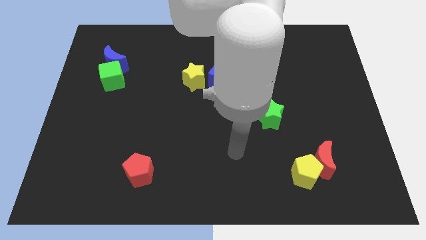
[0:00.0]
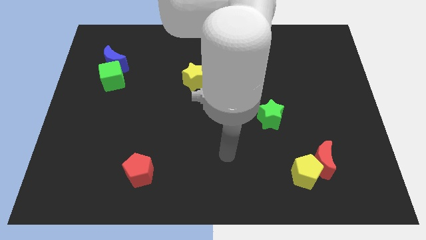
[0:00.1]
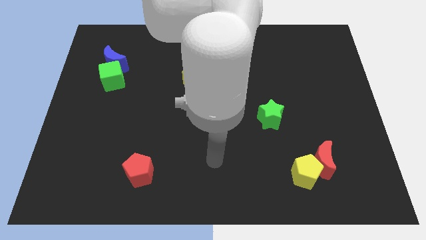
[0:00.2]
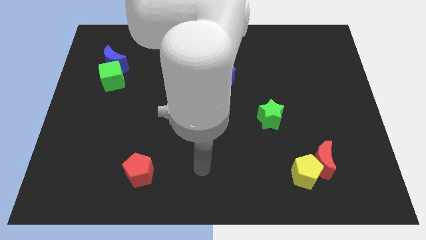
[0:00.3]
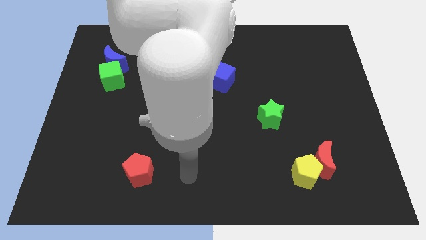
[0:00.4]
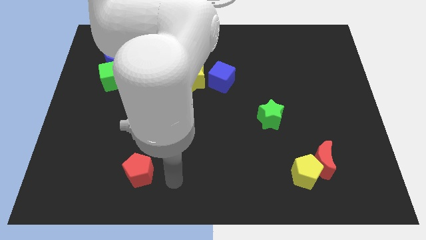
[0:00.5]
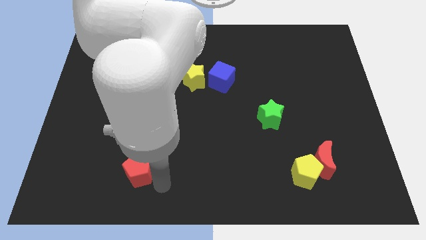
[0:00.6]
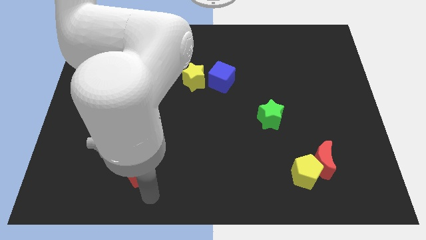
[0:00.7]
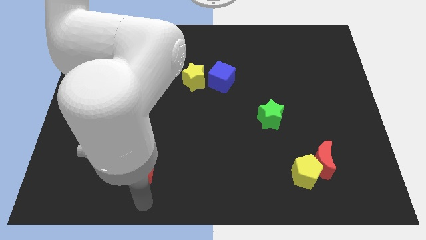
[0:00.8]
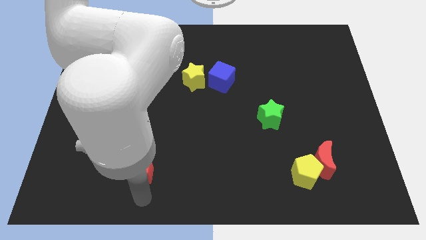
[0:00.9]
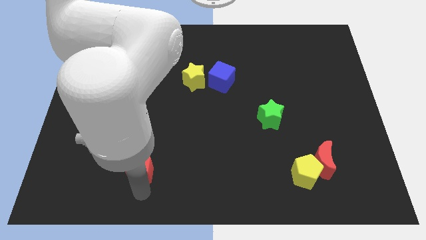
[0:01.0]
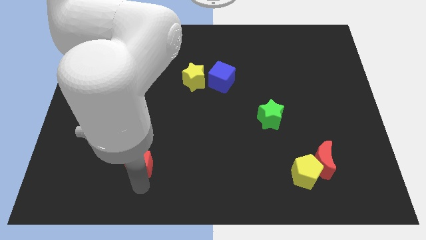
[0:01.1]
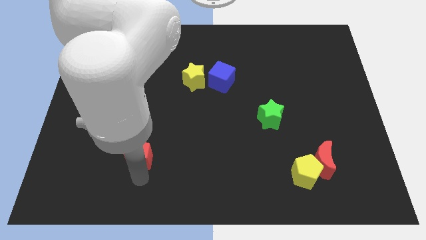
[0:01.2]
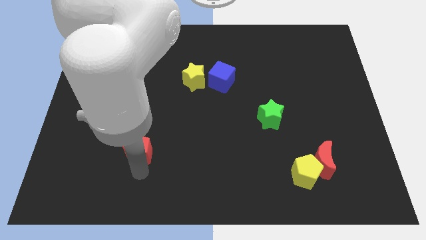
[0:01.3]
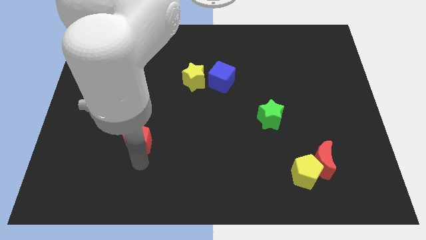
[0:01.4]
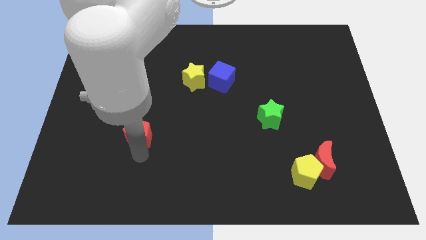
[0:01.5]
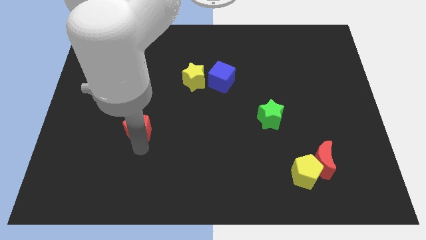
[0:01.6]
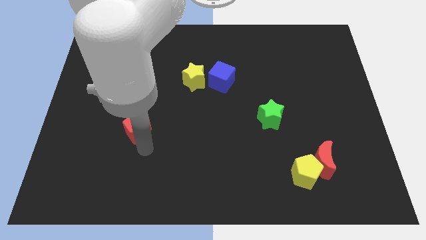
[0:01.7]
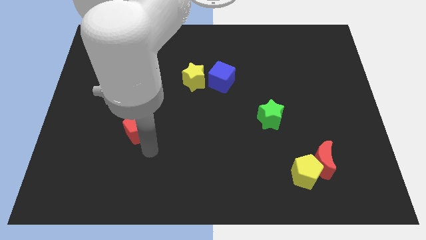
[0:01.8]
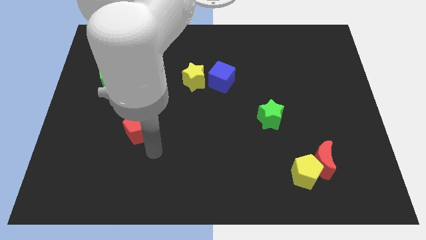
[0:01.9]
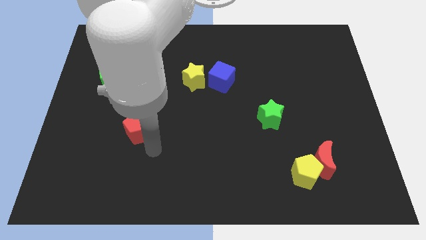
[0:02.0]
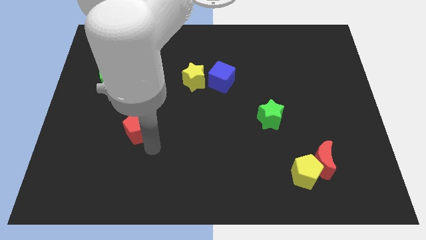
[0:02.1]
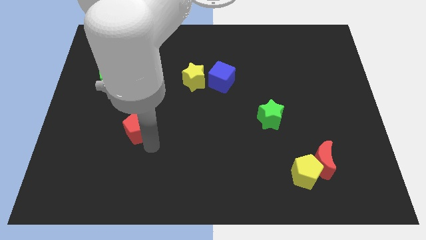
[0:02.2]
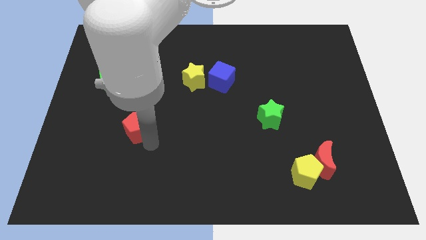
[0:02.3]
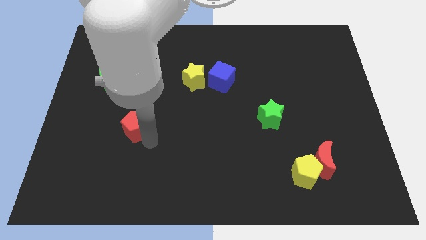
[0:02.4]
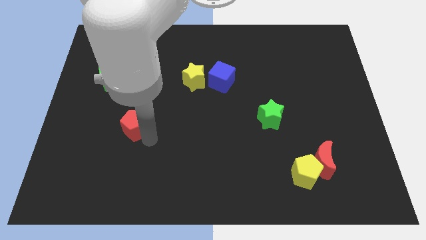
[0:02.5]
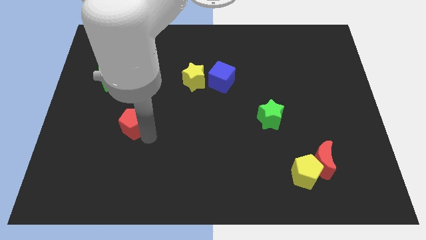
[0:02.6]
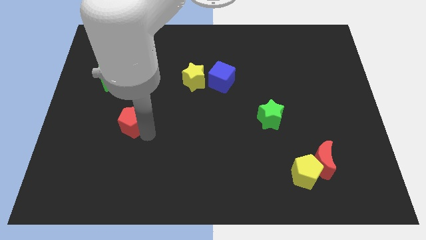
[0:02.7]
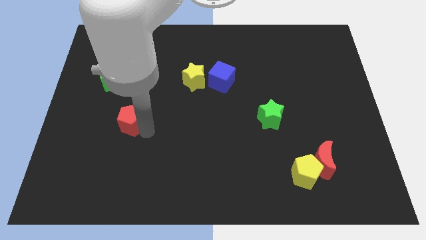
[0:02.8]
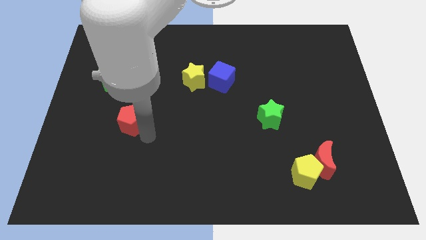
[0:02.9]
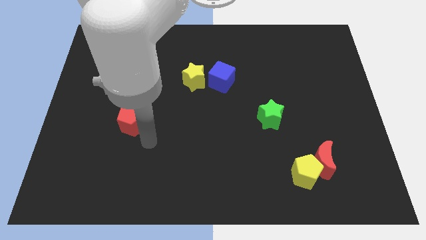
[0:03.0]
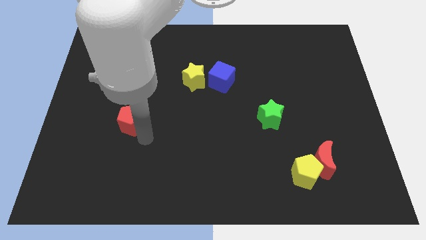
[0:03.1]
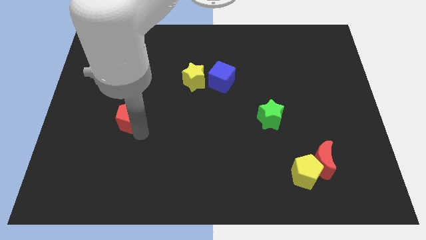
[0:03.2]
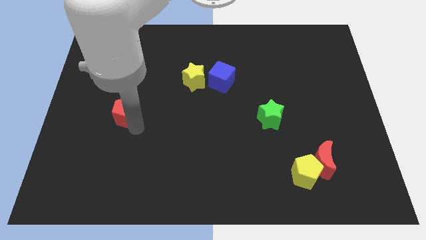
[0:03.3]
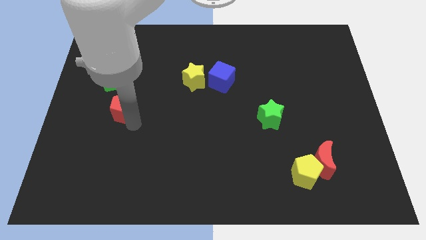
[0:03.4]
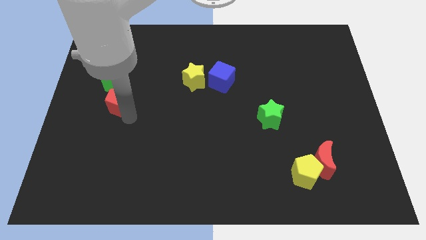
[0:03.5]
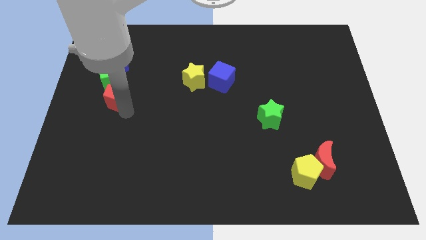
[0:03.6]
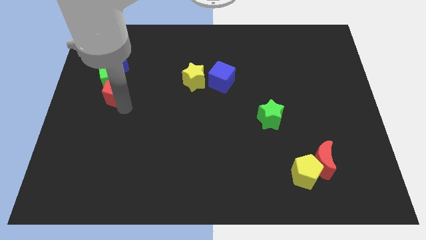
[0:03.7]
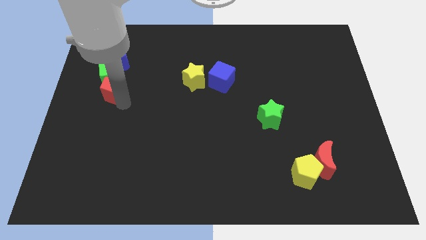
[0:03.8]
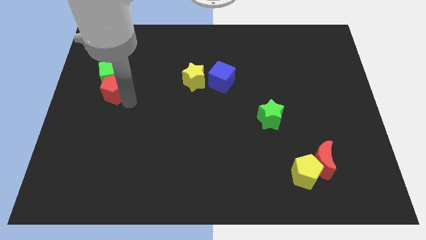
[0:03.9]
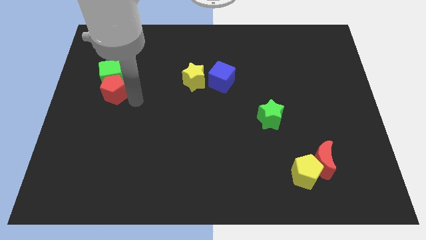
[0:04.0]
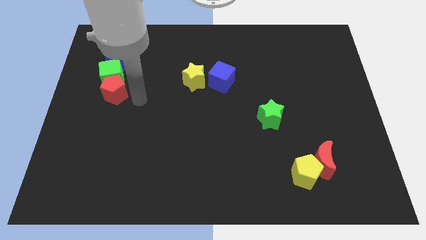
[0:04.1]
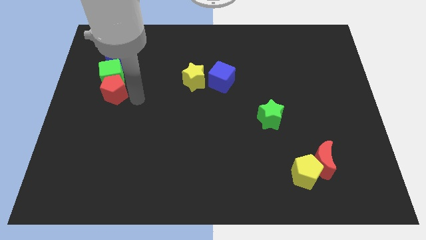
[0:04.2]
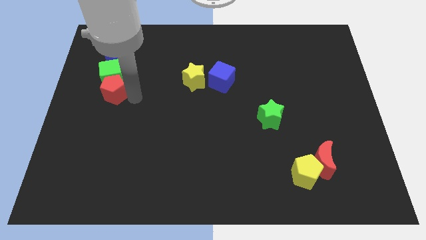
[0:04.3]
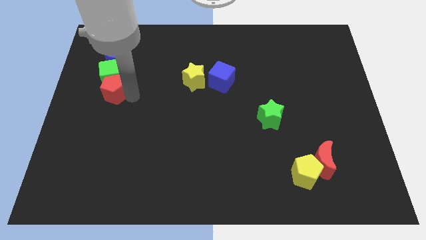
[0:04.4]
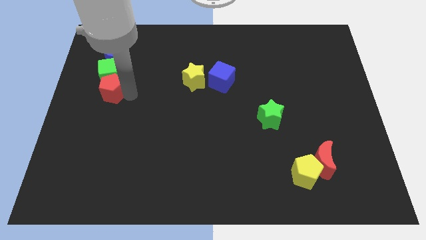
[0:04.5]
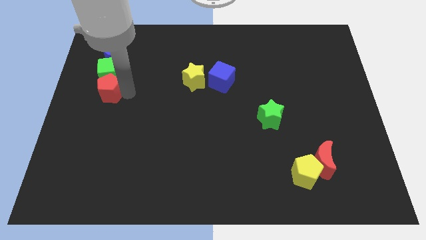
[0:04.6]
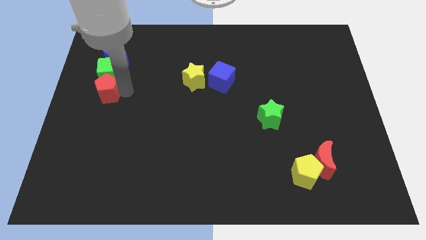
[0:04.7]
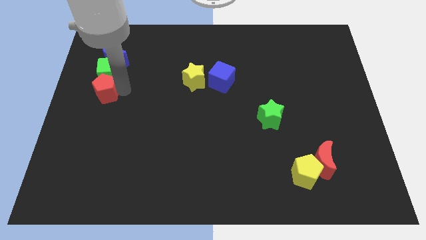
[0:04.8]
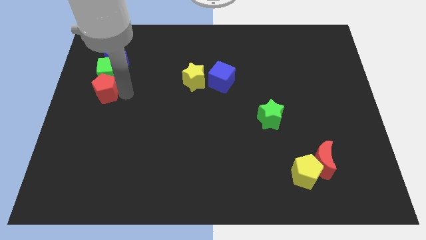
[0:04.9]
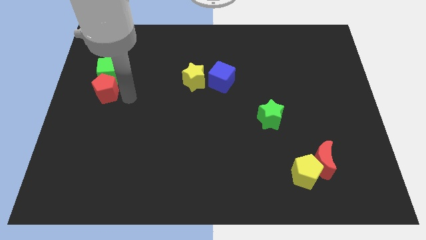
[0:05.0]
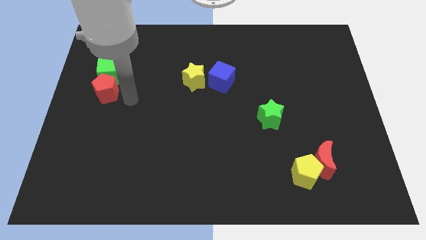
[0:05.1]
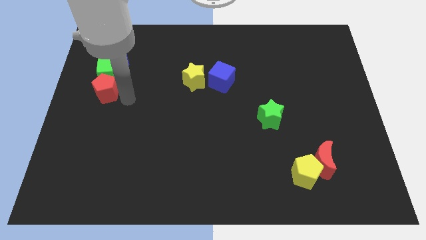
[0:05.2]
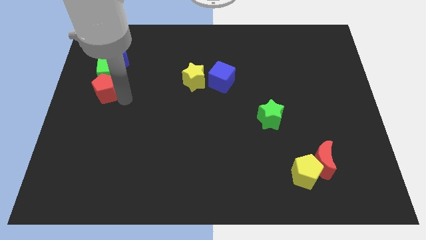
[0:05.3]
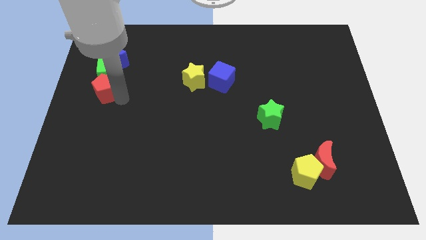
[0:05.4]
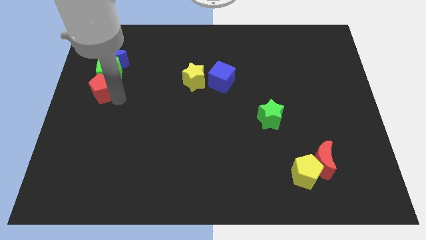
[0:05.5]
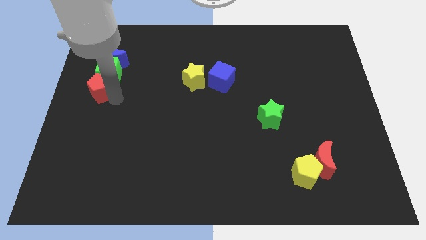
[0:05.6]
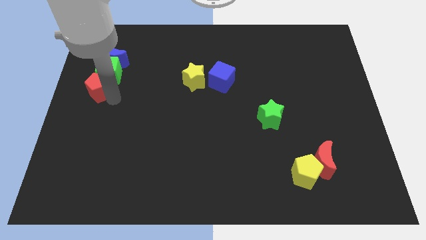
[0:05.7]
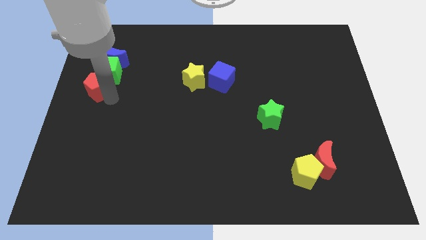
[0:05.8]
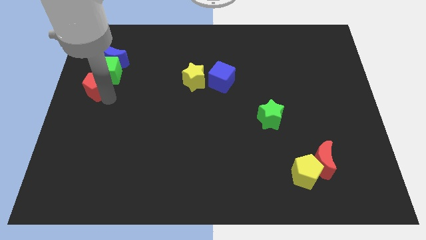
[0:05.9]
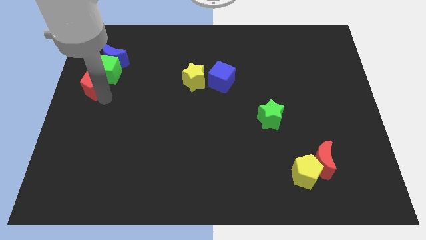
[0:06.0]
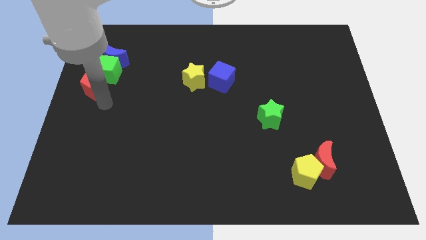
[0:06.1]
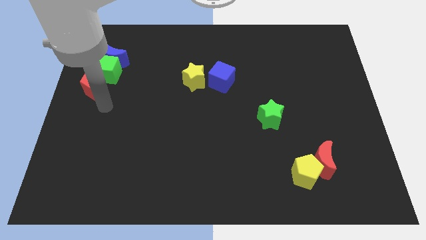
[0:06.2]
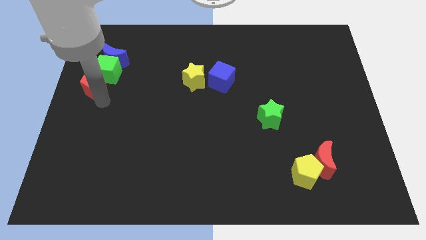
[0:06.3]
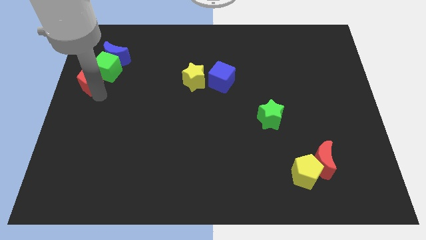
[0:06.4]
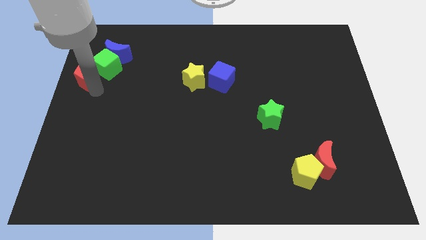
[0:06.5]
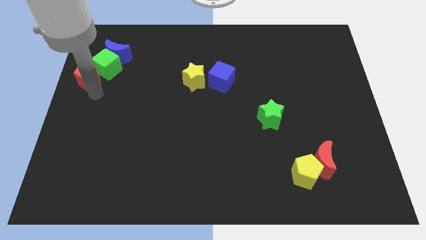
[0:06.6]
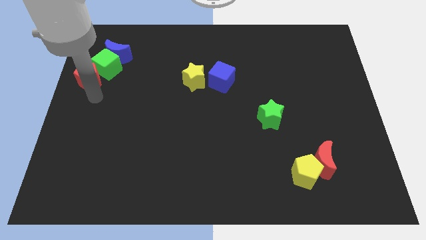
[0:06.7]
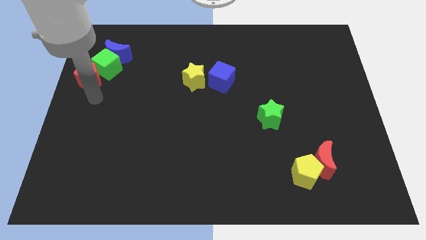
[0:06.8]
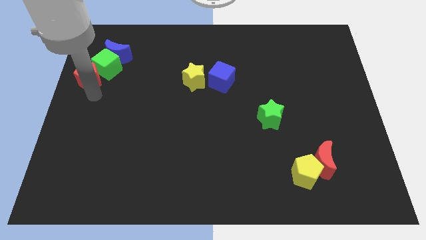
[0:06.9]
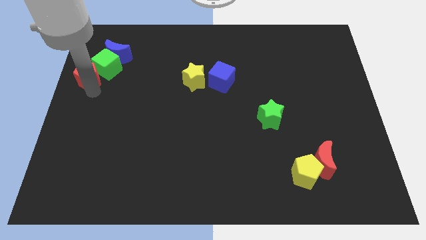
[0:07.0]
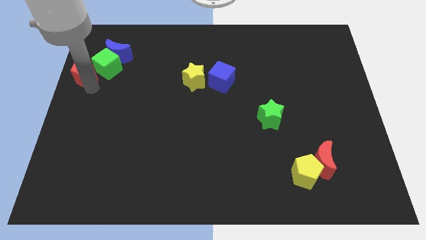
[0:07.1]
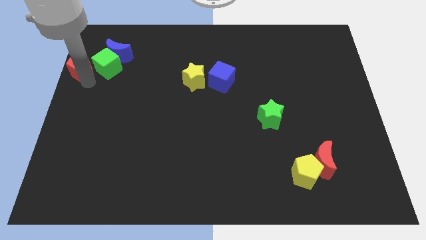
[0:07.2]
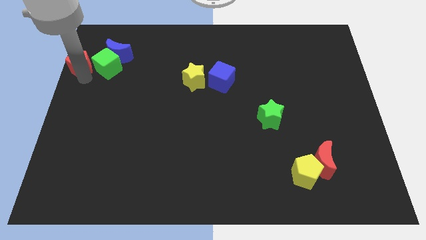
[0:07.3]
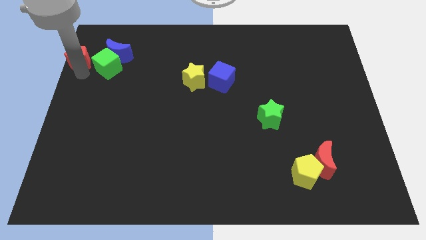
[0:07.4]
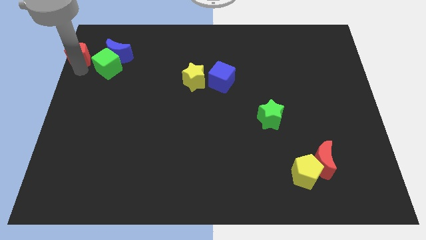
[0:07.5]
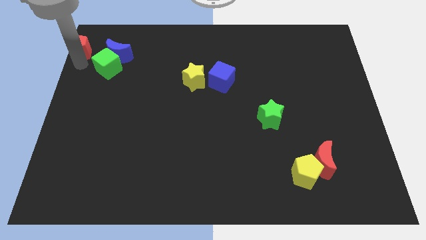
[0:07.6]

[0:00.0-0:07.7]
slide the red pentagon to the top left
